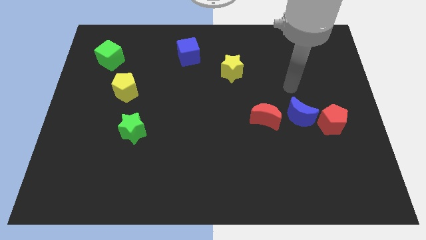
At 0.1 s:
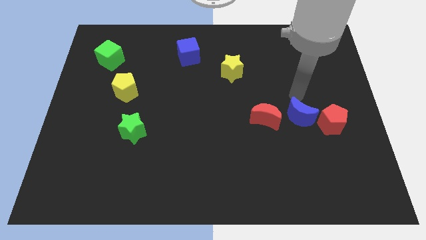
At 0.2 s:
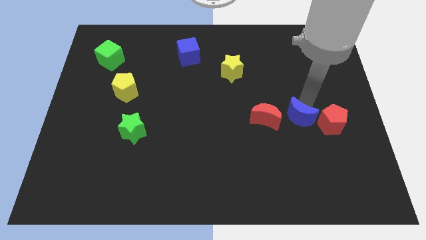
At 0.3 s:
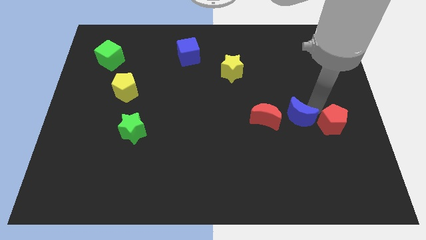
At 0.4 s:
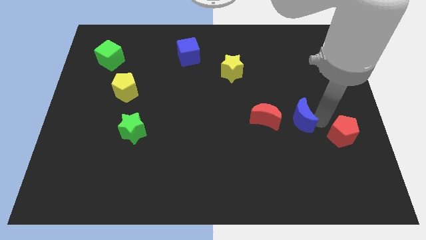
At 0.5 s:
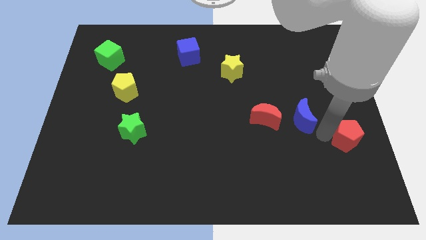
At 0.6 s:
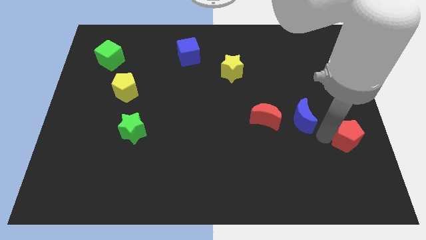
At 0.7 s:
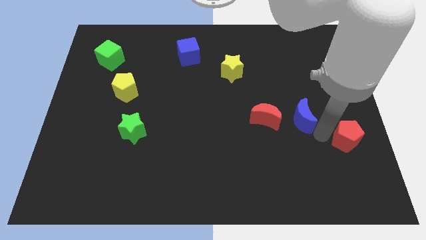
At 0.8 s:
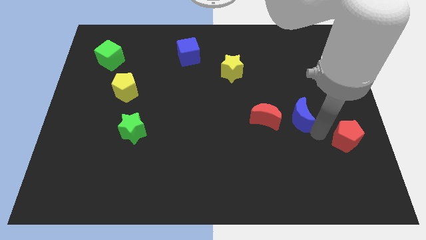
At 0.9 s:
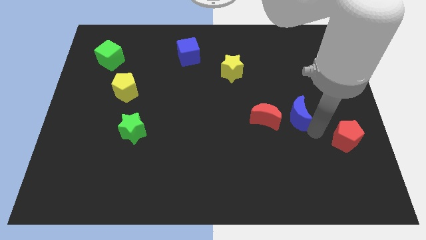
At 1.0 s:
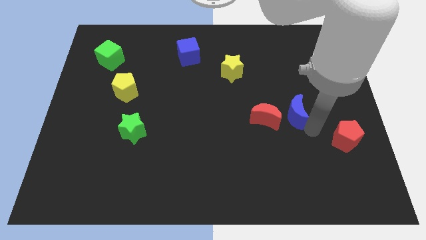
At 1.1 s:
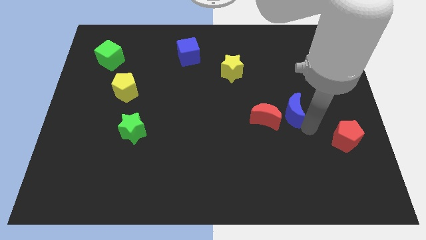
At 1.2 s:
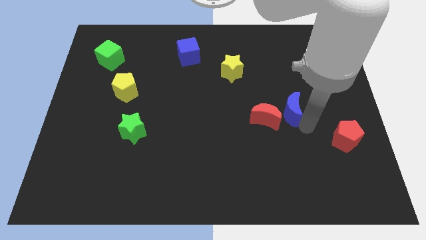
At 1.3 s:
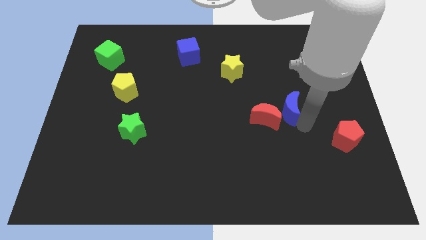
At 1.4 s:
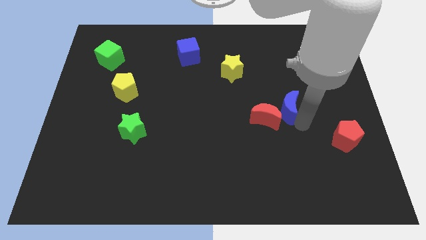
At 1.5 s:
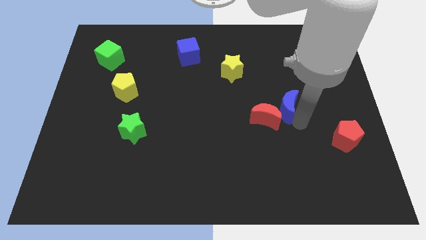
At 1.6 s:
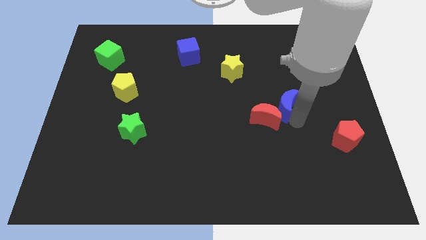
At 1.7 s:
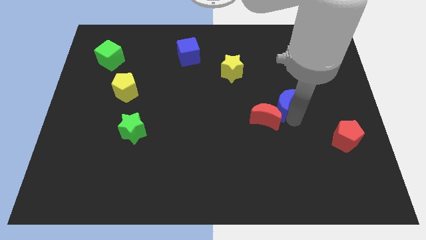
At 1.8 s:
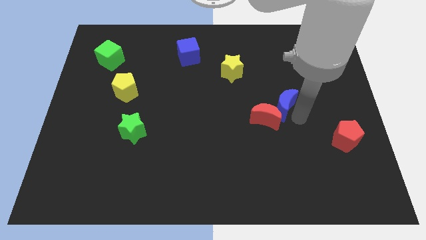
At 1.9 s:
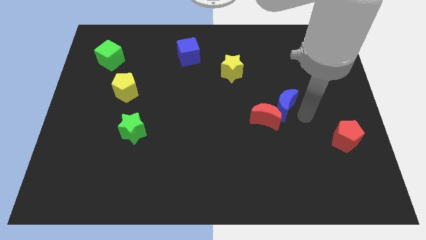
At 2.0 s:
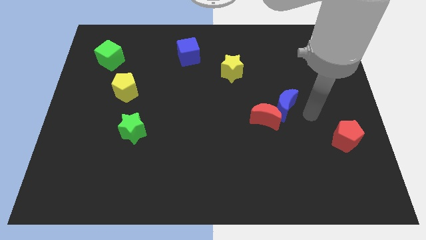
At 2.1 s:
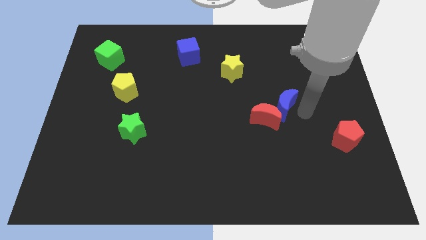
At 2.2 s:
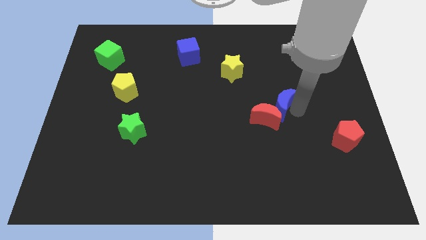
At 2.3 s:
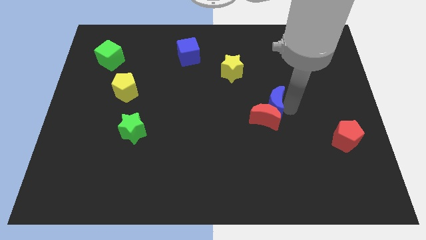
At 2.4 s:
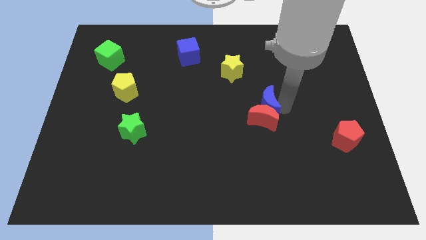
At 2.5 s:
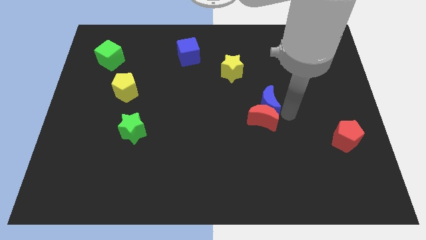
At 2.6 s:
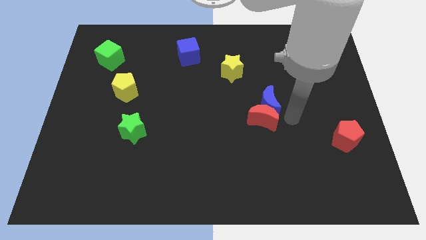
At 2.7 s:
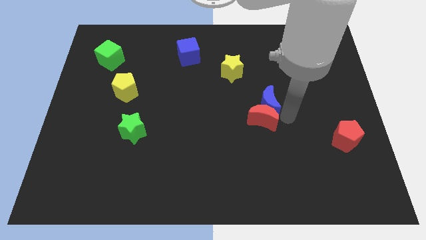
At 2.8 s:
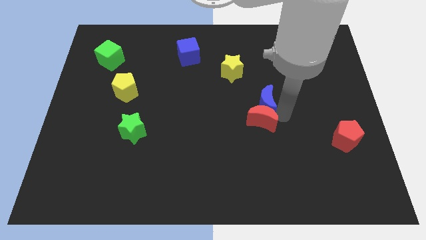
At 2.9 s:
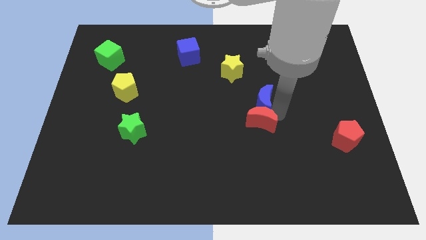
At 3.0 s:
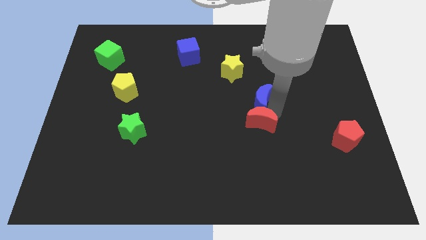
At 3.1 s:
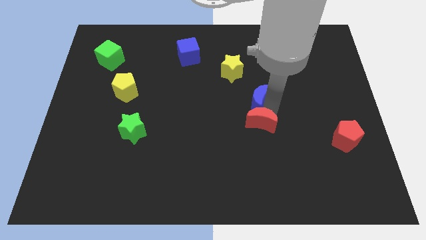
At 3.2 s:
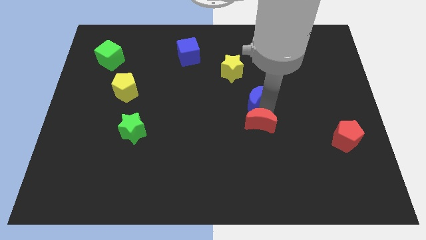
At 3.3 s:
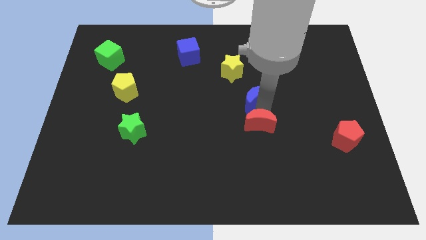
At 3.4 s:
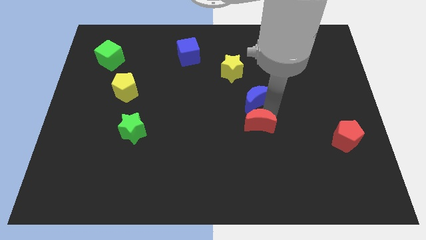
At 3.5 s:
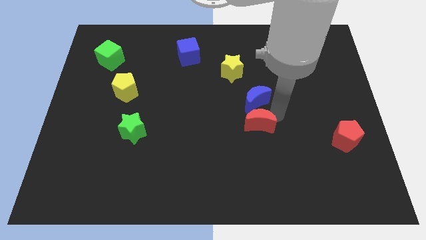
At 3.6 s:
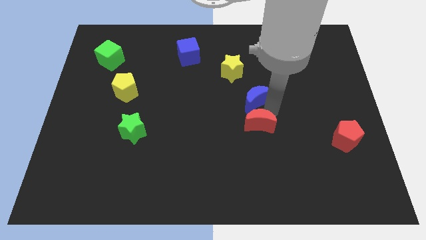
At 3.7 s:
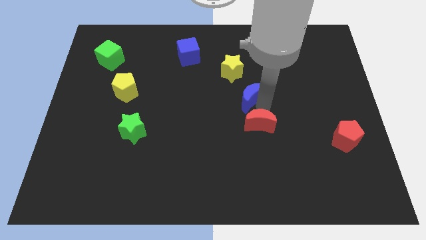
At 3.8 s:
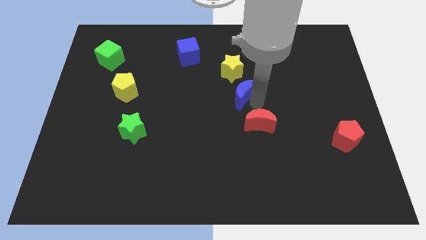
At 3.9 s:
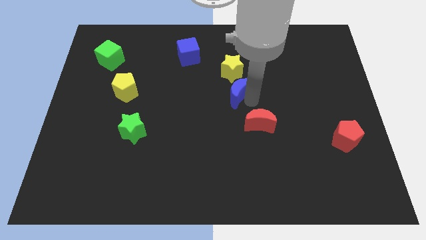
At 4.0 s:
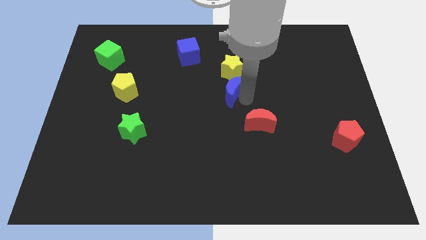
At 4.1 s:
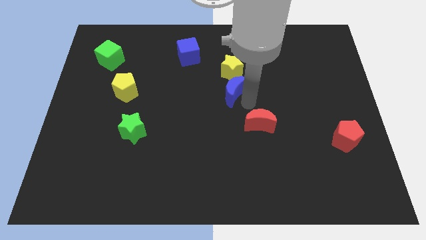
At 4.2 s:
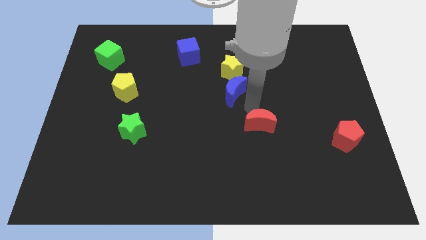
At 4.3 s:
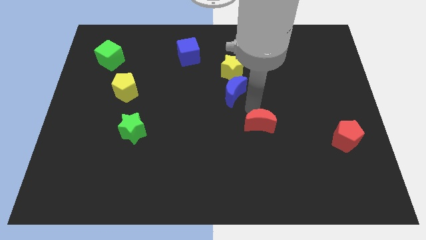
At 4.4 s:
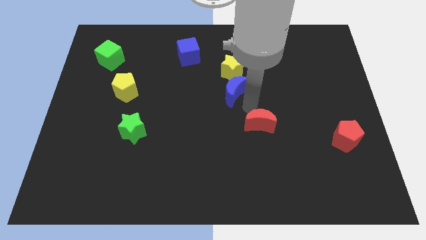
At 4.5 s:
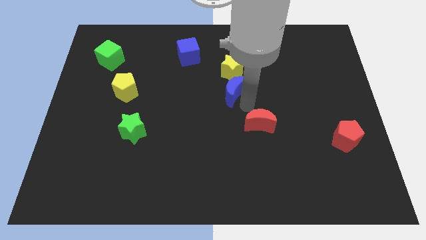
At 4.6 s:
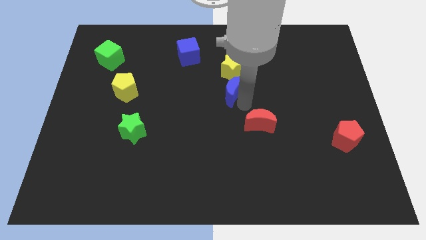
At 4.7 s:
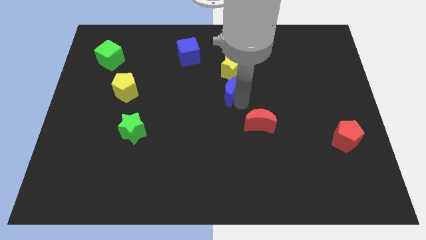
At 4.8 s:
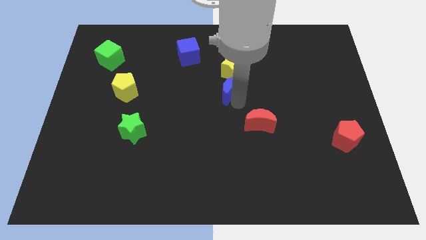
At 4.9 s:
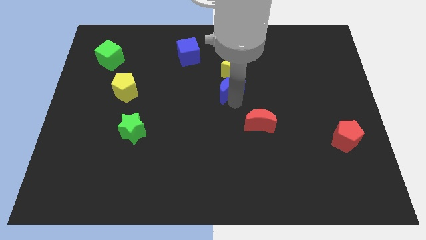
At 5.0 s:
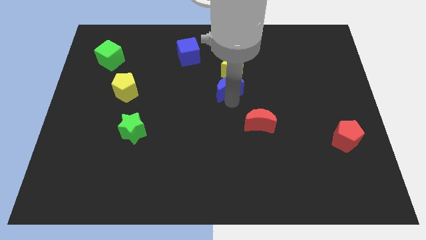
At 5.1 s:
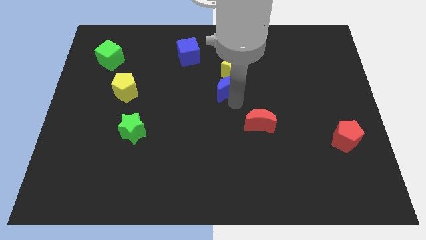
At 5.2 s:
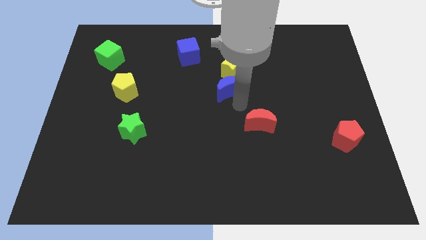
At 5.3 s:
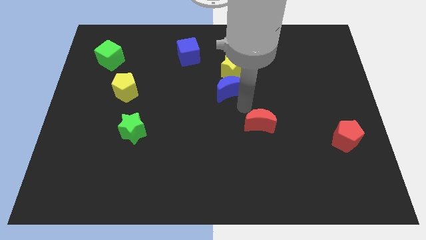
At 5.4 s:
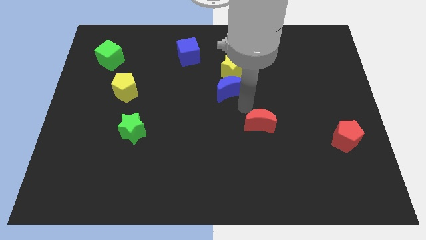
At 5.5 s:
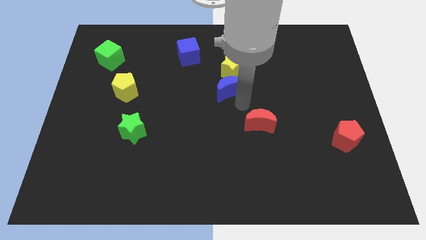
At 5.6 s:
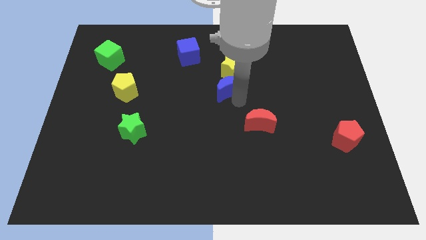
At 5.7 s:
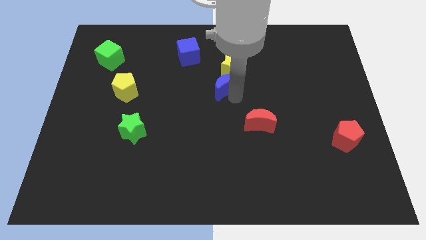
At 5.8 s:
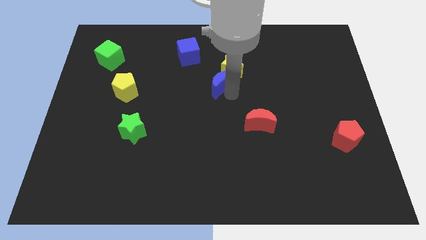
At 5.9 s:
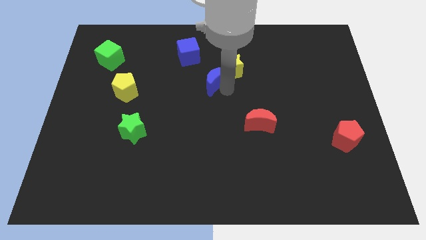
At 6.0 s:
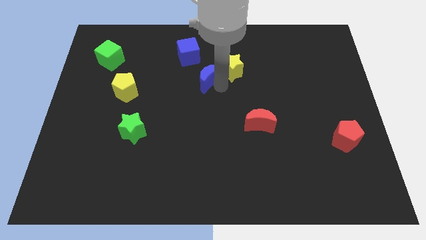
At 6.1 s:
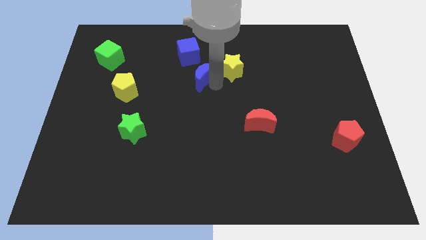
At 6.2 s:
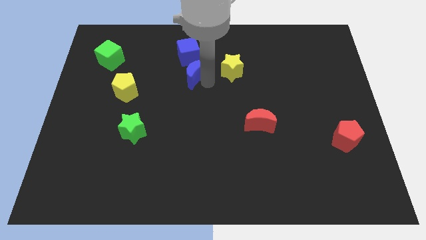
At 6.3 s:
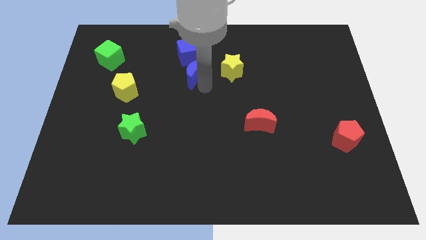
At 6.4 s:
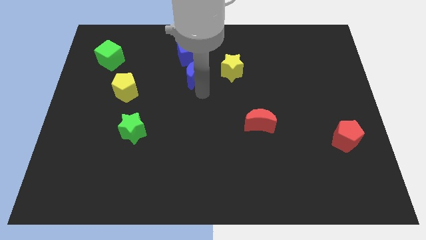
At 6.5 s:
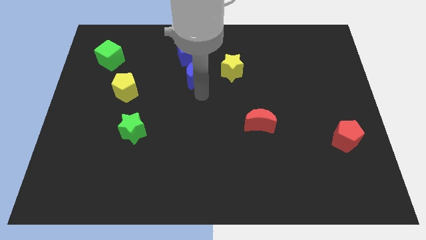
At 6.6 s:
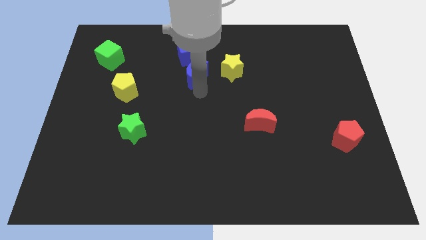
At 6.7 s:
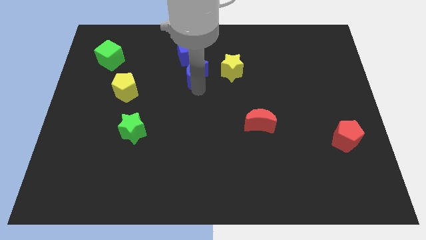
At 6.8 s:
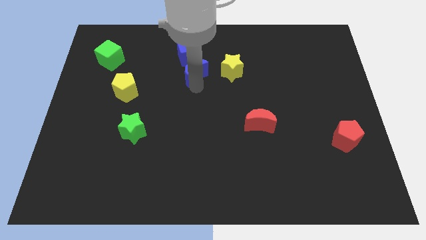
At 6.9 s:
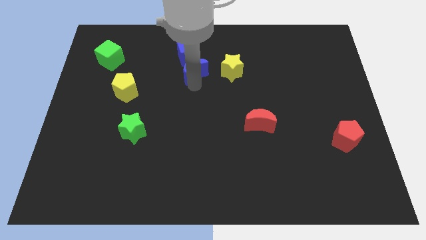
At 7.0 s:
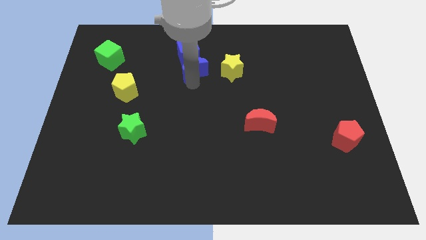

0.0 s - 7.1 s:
move the blue moon close to the blue cube

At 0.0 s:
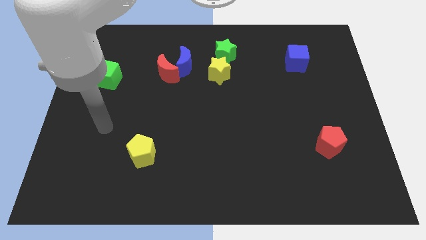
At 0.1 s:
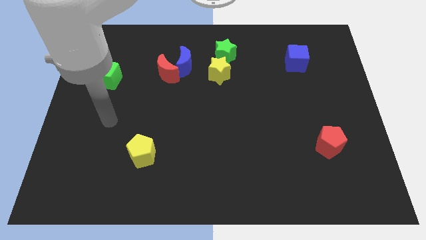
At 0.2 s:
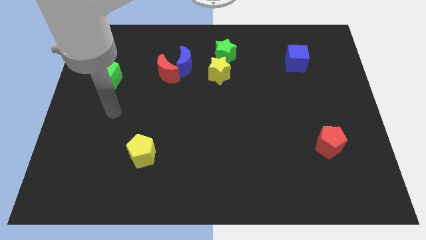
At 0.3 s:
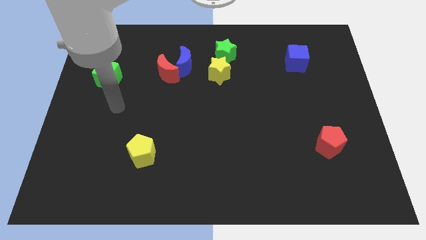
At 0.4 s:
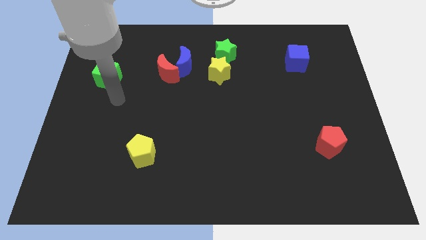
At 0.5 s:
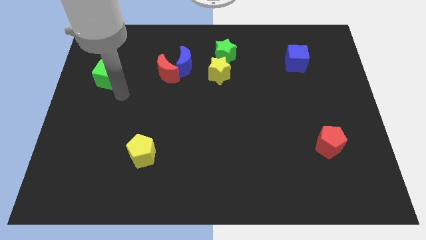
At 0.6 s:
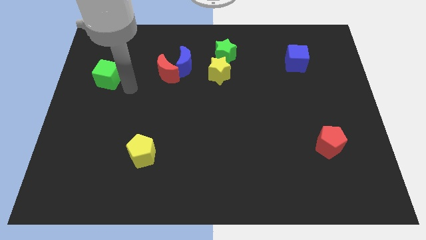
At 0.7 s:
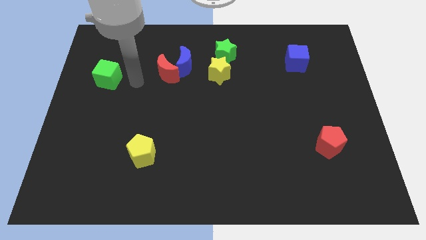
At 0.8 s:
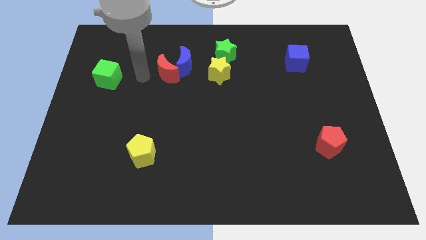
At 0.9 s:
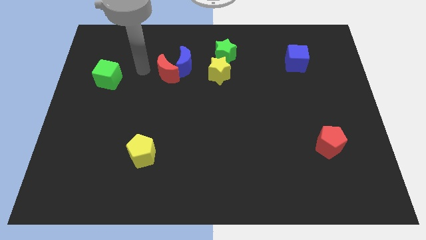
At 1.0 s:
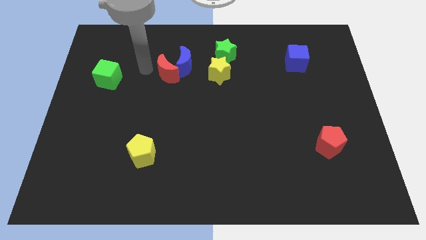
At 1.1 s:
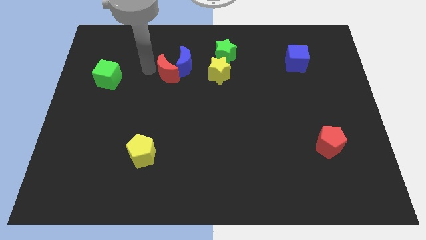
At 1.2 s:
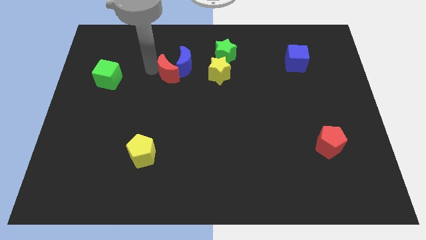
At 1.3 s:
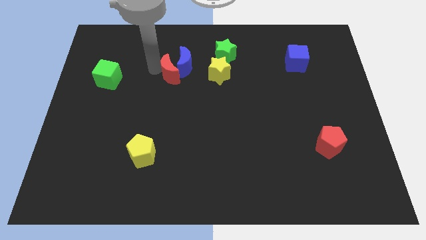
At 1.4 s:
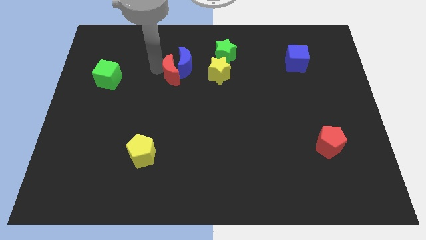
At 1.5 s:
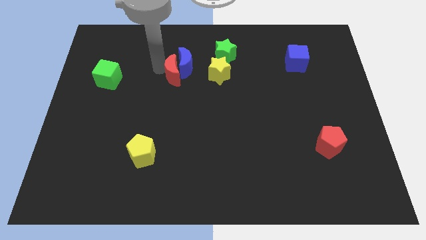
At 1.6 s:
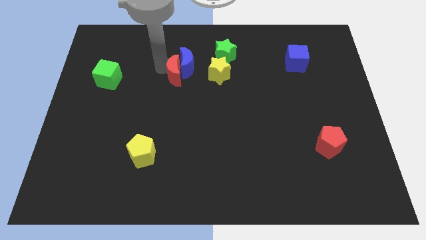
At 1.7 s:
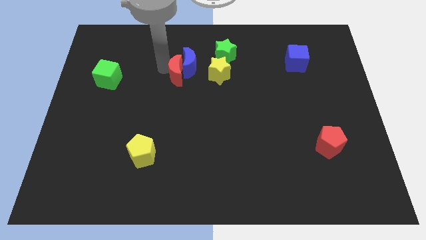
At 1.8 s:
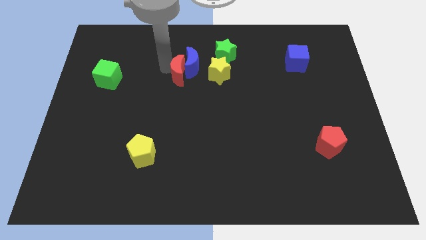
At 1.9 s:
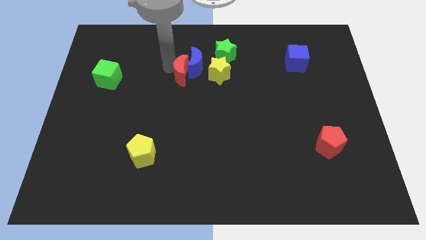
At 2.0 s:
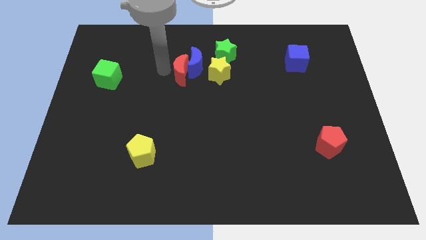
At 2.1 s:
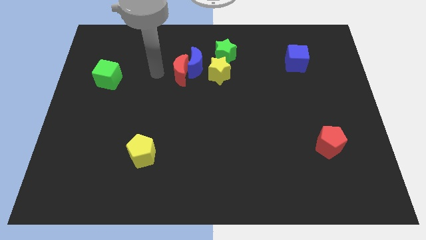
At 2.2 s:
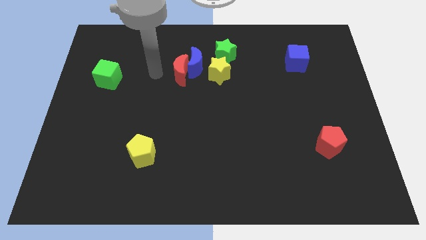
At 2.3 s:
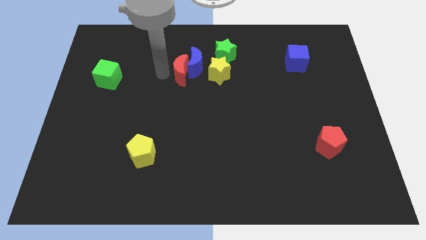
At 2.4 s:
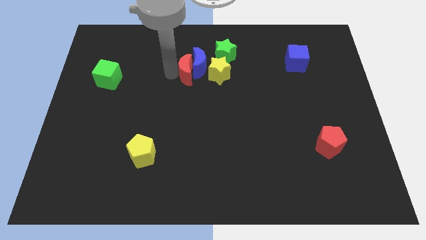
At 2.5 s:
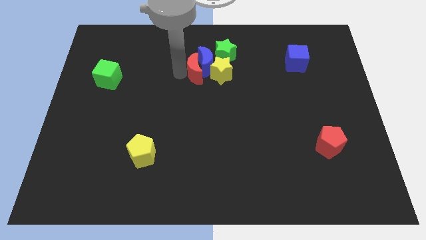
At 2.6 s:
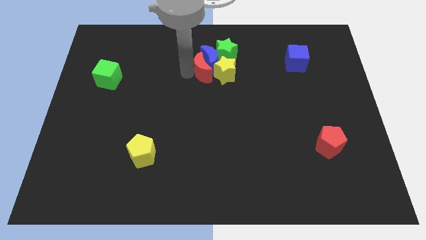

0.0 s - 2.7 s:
move the red moon towards the yellow star
